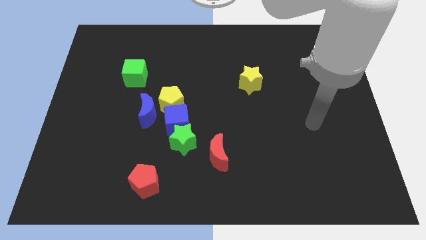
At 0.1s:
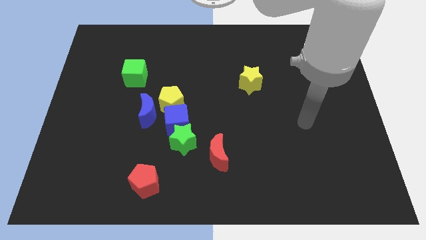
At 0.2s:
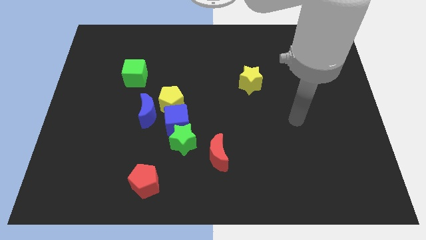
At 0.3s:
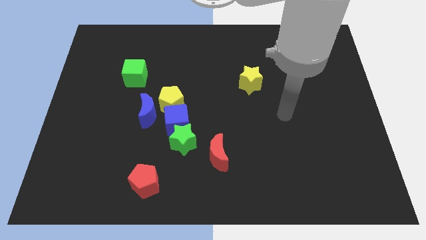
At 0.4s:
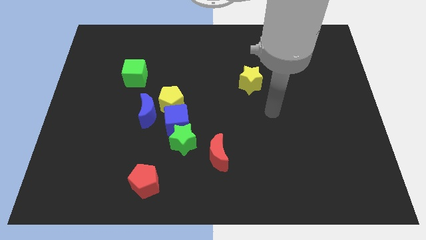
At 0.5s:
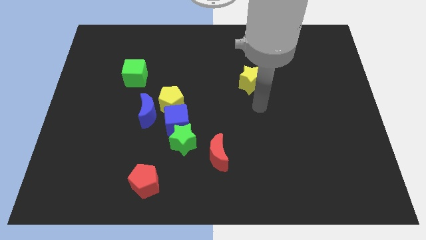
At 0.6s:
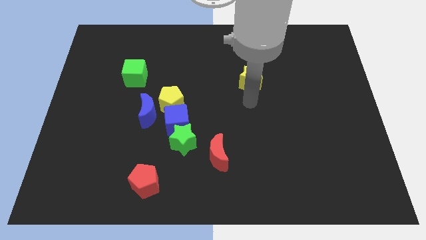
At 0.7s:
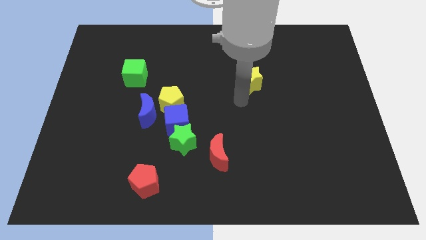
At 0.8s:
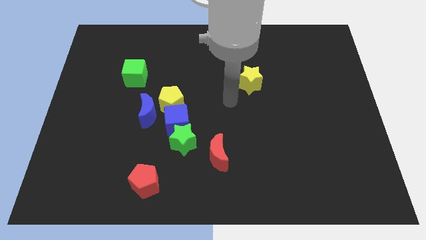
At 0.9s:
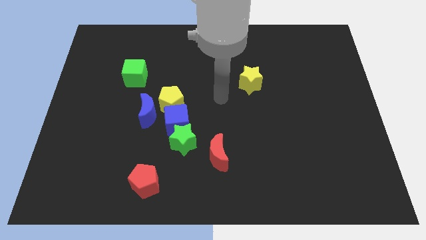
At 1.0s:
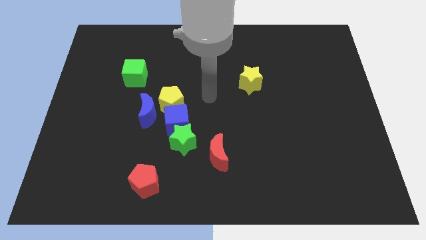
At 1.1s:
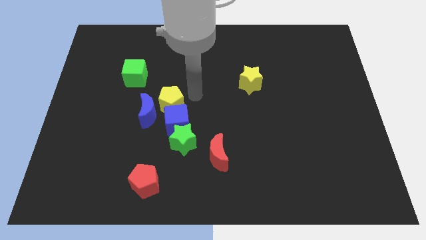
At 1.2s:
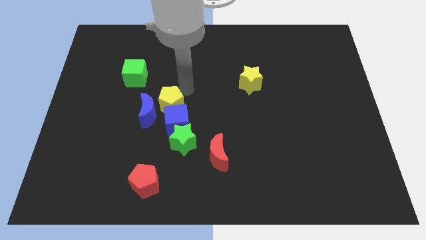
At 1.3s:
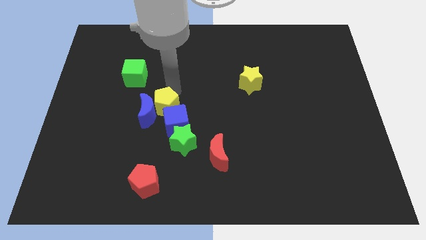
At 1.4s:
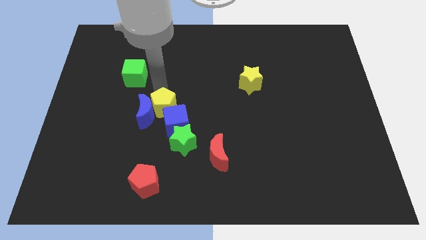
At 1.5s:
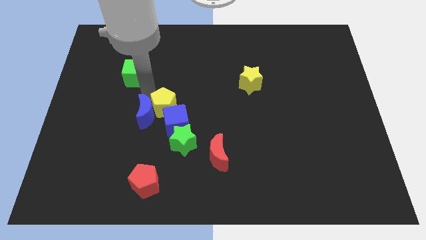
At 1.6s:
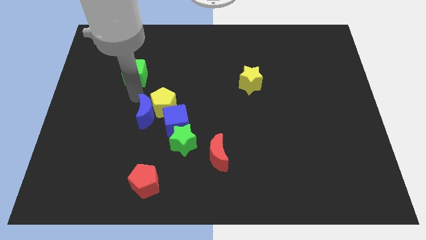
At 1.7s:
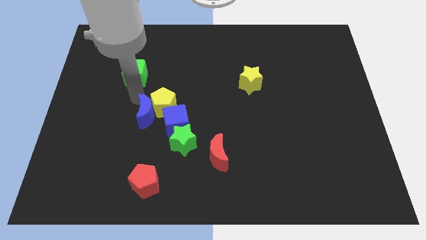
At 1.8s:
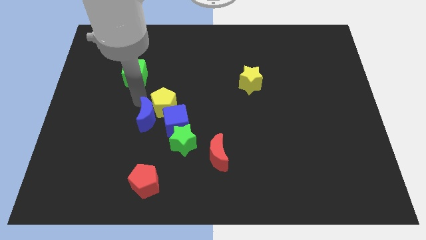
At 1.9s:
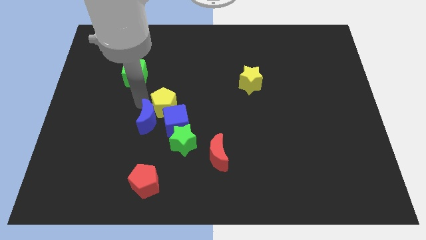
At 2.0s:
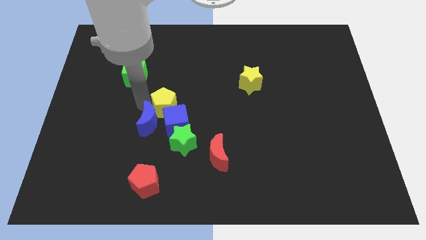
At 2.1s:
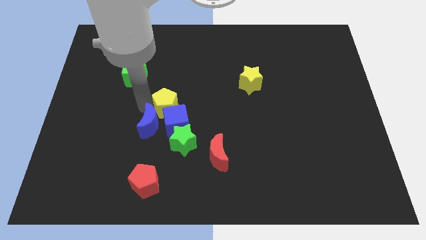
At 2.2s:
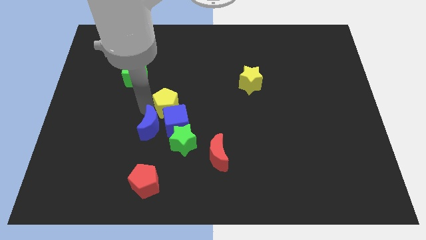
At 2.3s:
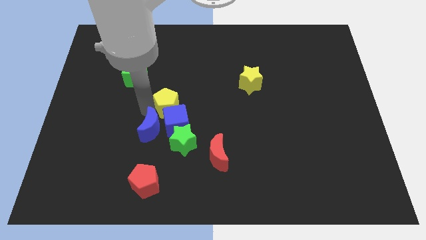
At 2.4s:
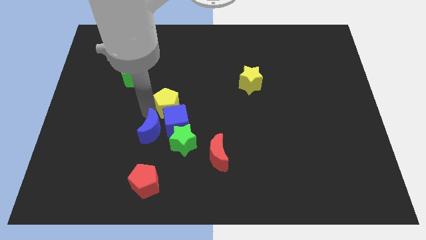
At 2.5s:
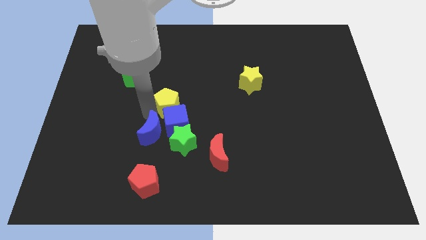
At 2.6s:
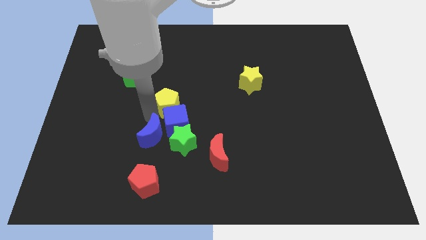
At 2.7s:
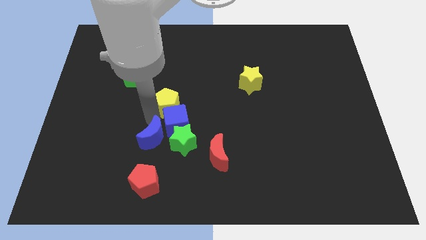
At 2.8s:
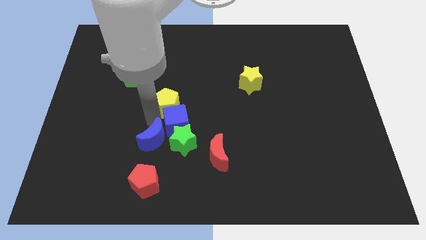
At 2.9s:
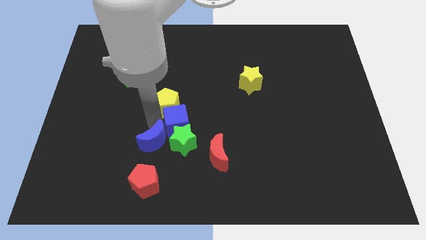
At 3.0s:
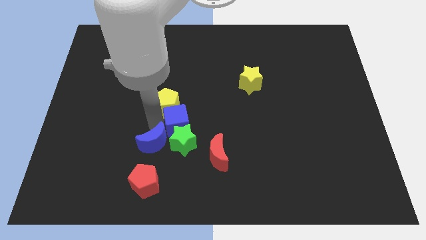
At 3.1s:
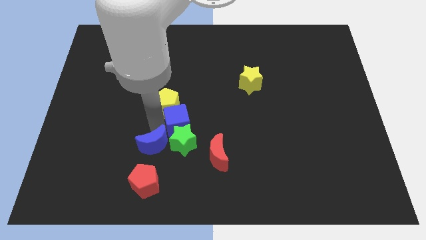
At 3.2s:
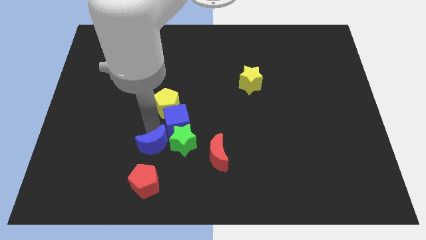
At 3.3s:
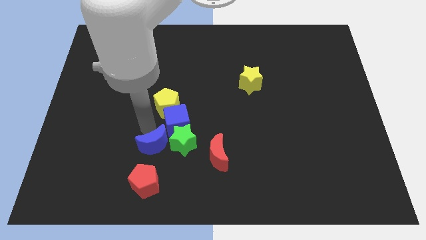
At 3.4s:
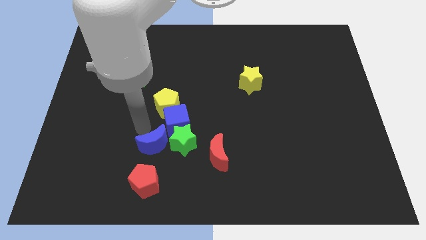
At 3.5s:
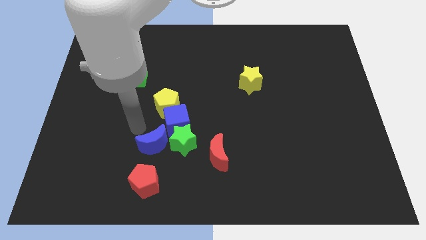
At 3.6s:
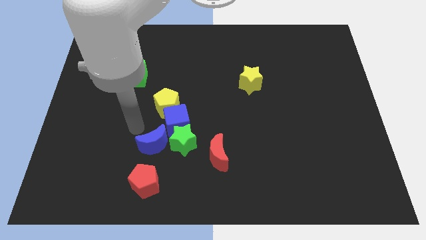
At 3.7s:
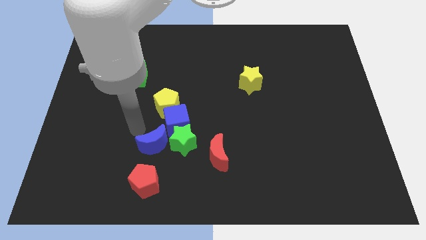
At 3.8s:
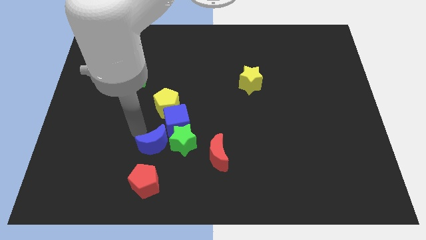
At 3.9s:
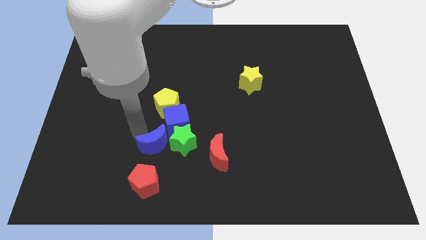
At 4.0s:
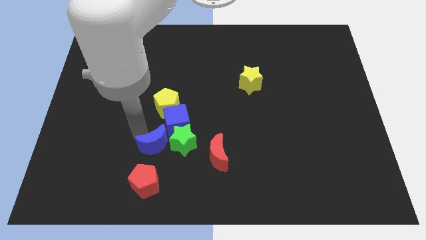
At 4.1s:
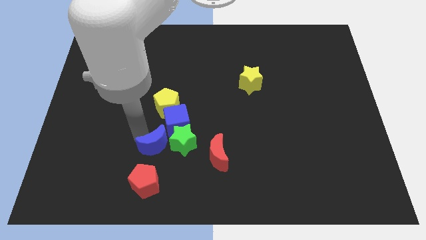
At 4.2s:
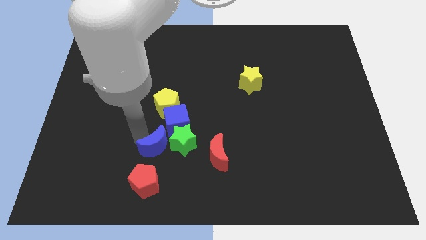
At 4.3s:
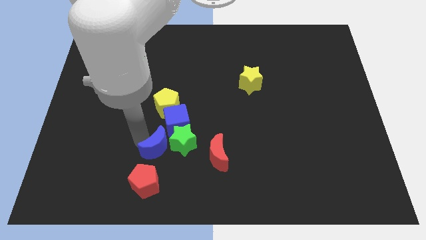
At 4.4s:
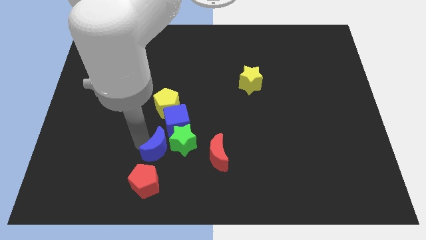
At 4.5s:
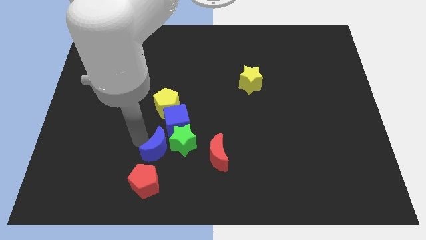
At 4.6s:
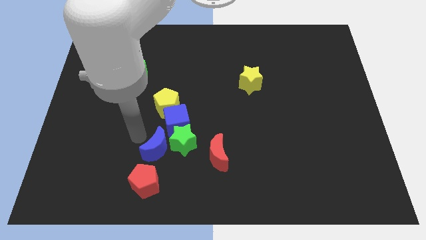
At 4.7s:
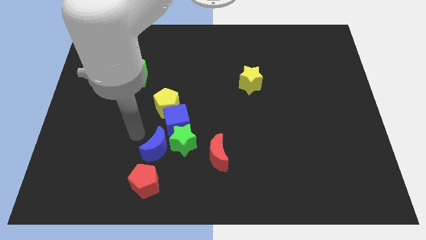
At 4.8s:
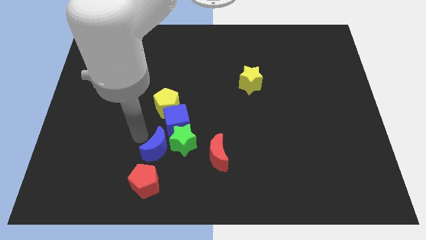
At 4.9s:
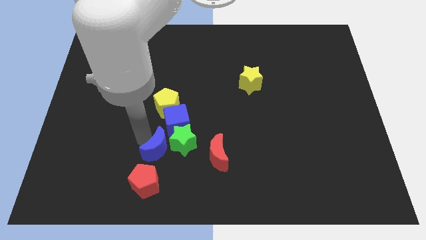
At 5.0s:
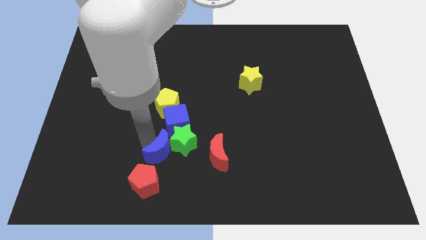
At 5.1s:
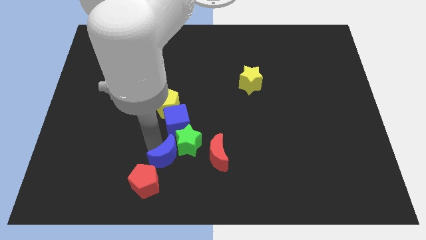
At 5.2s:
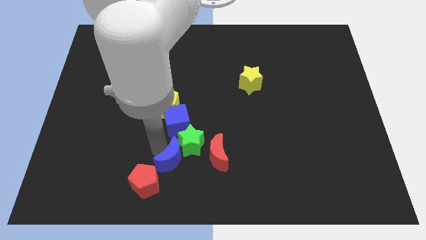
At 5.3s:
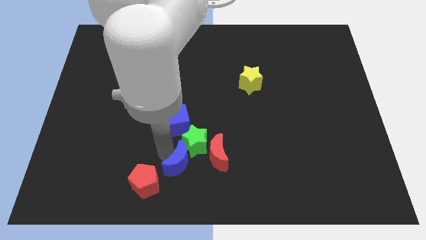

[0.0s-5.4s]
put the blue moon to the bottom

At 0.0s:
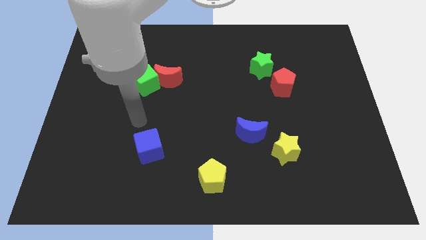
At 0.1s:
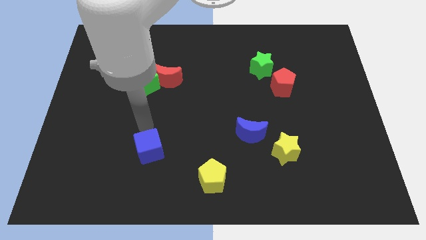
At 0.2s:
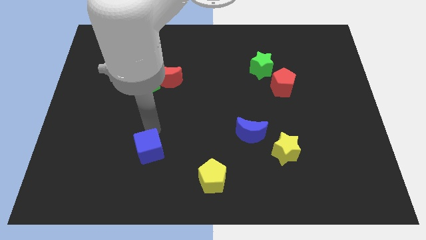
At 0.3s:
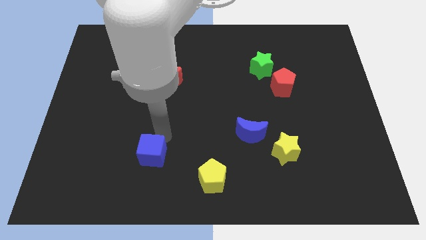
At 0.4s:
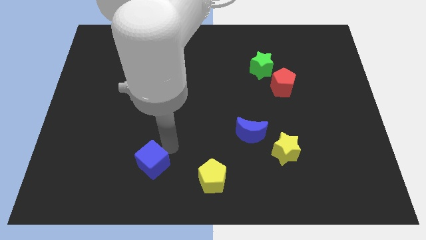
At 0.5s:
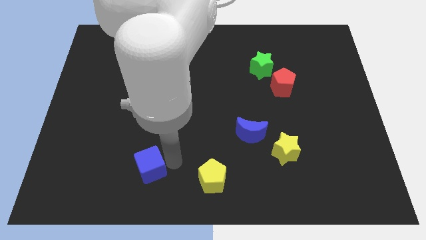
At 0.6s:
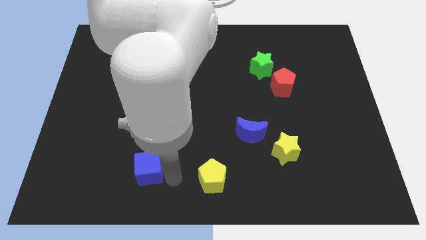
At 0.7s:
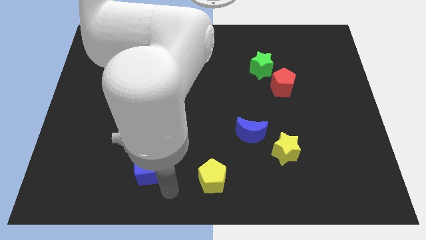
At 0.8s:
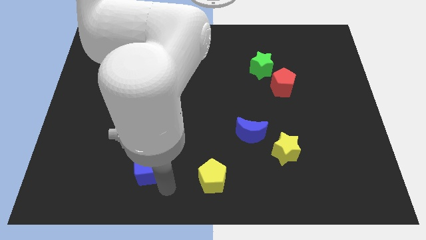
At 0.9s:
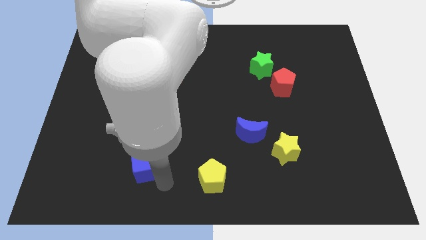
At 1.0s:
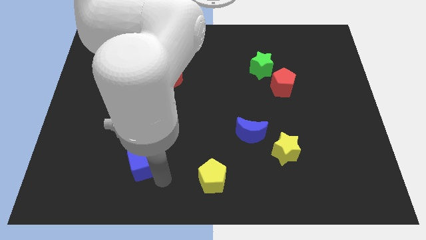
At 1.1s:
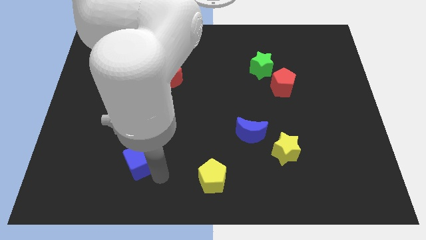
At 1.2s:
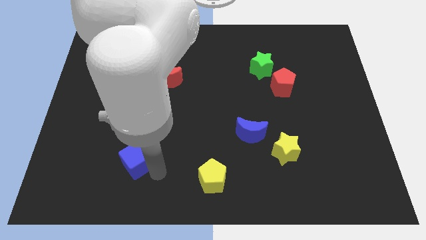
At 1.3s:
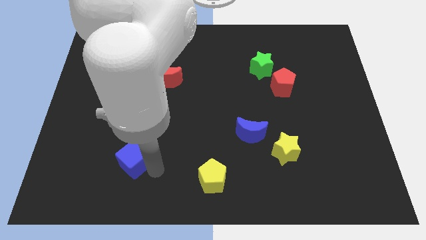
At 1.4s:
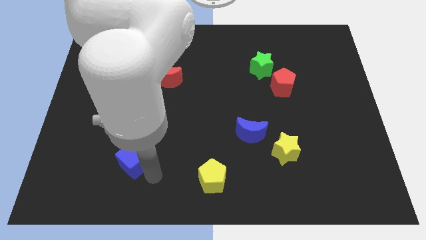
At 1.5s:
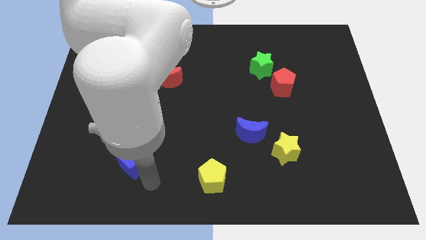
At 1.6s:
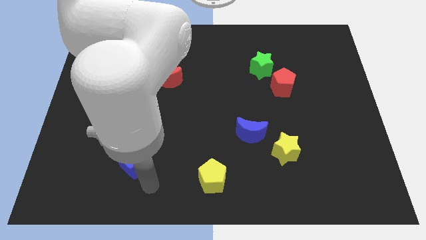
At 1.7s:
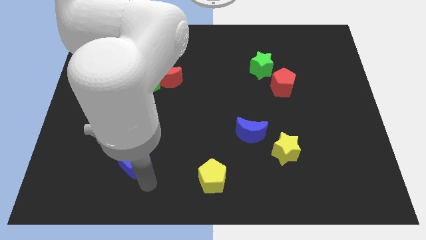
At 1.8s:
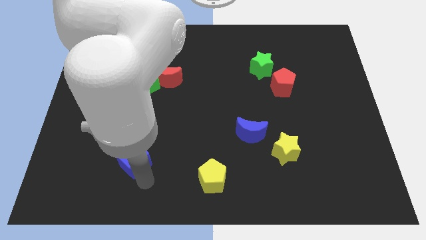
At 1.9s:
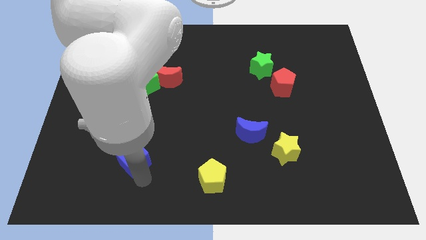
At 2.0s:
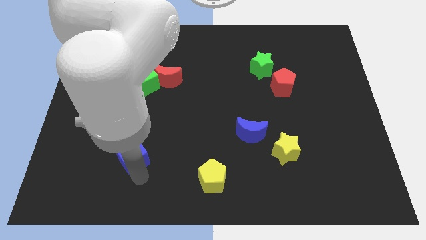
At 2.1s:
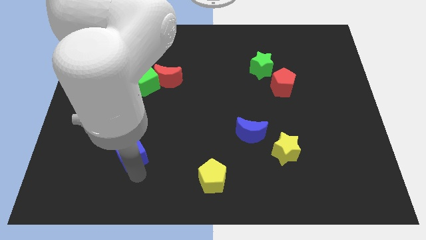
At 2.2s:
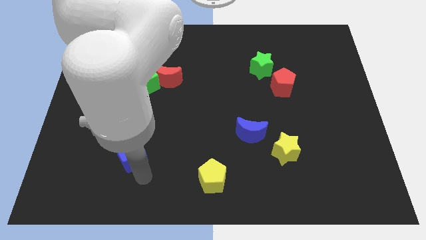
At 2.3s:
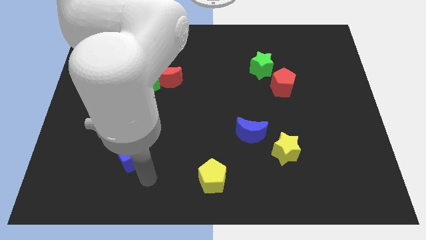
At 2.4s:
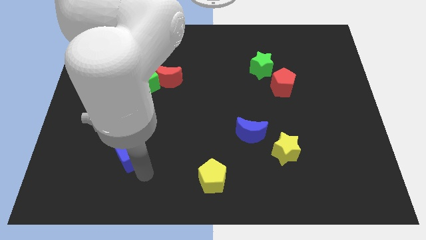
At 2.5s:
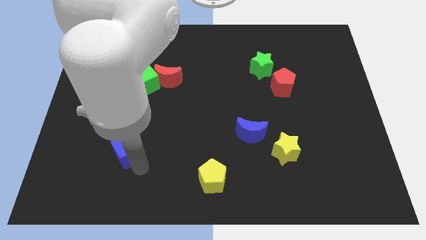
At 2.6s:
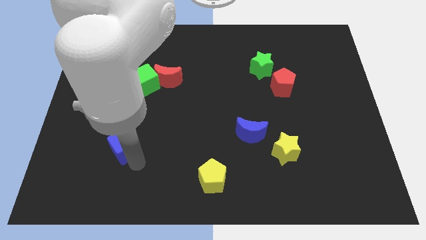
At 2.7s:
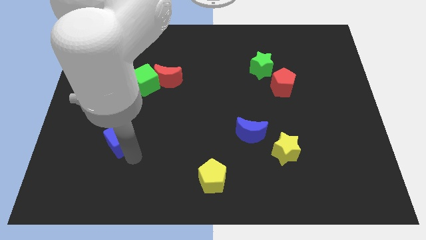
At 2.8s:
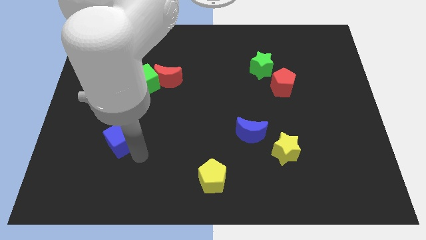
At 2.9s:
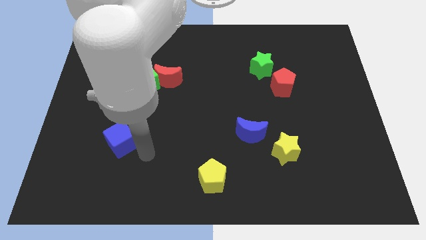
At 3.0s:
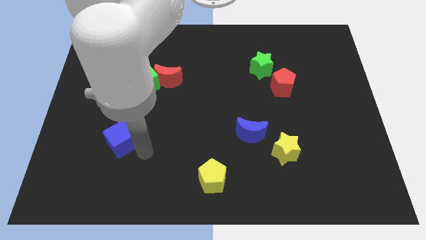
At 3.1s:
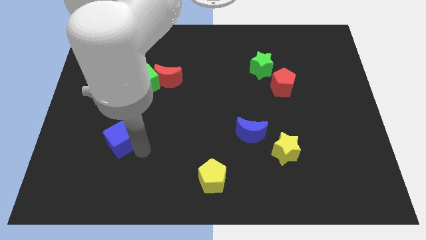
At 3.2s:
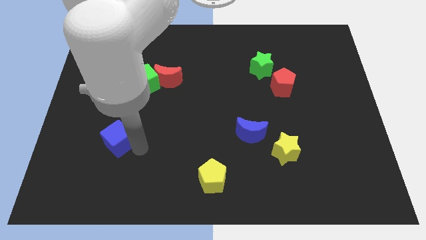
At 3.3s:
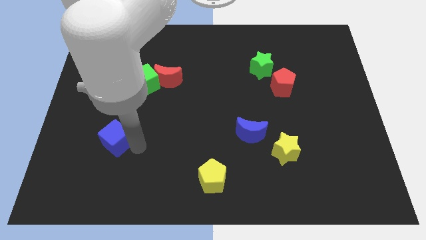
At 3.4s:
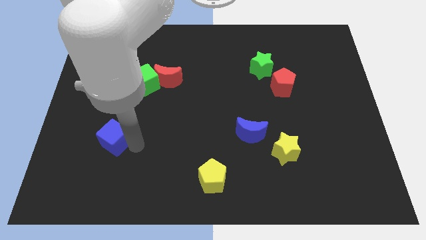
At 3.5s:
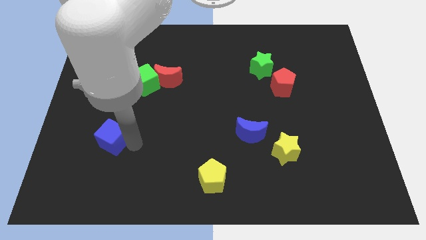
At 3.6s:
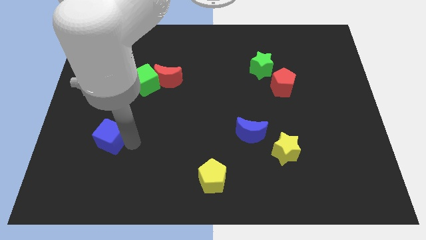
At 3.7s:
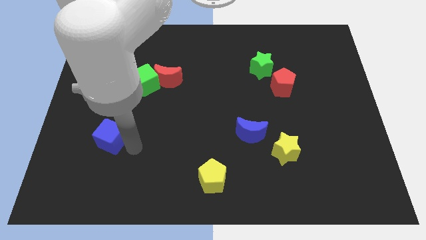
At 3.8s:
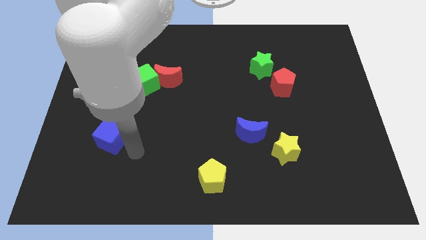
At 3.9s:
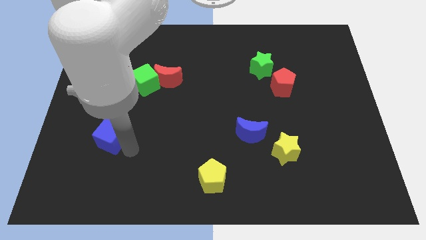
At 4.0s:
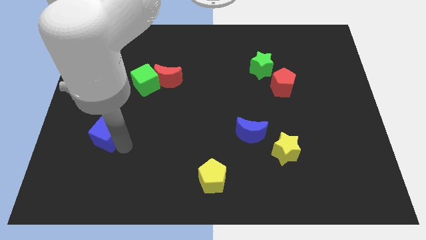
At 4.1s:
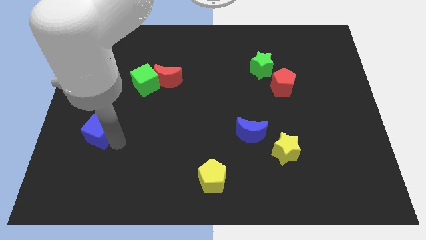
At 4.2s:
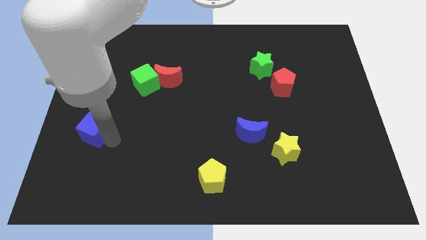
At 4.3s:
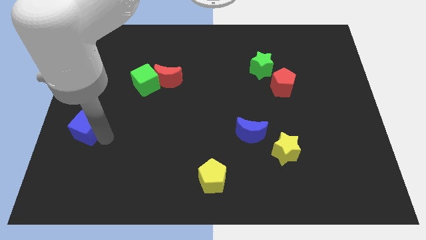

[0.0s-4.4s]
slide the blue cube to the center left
